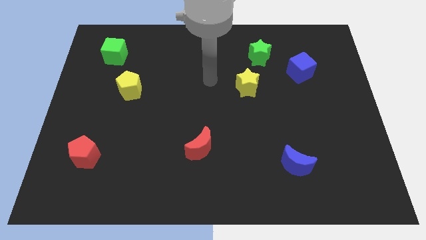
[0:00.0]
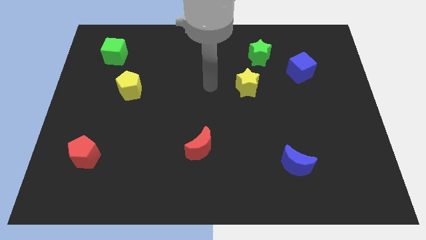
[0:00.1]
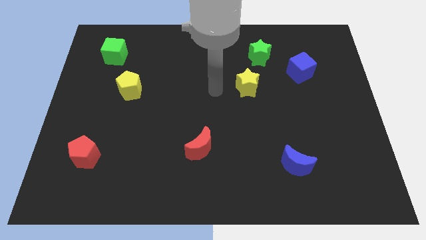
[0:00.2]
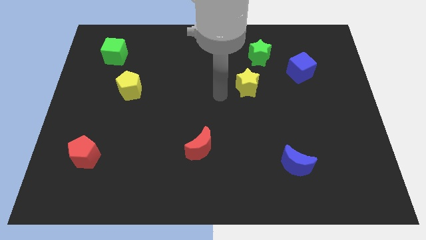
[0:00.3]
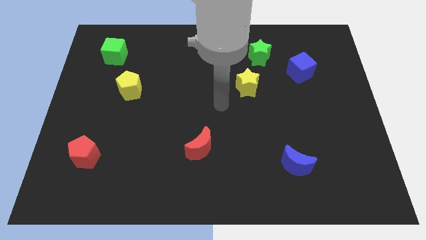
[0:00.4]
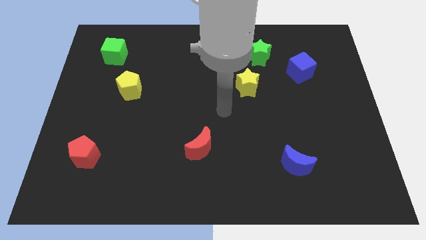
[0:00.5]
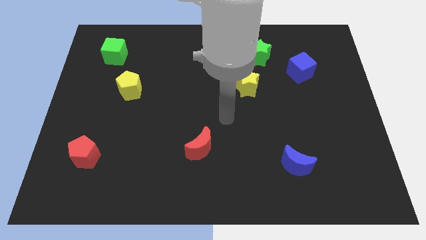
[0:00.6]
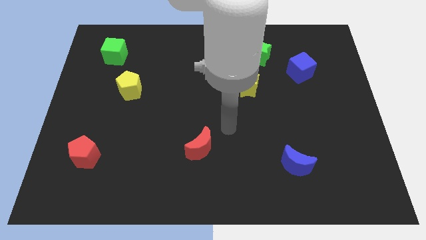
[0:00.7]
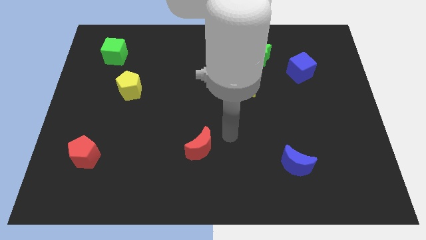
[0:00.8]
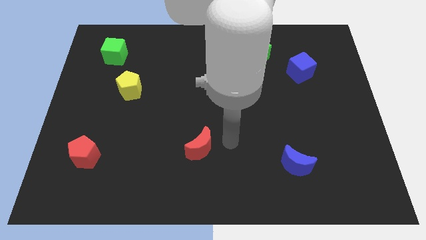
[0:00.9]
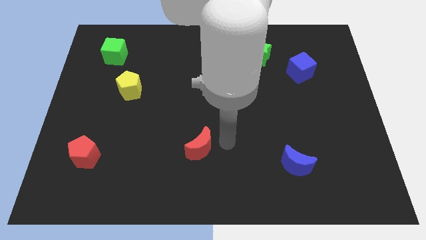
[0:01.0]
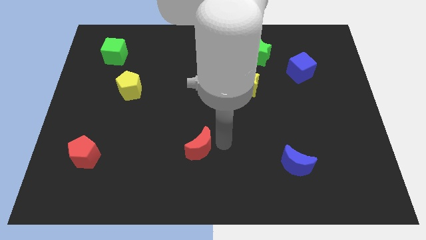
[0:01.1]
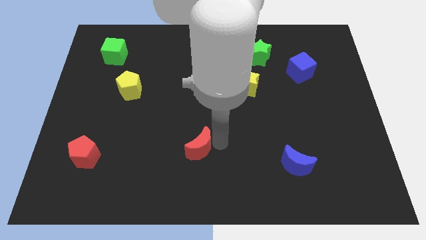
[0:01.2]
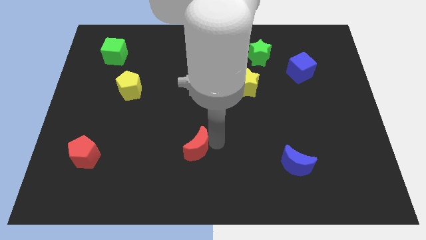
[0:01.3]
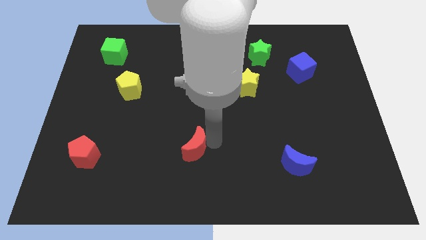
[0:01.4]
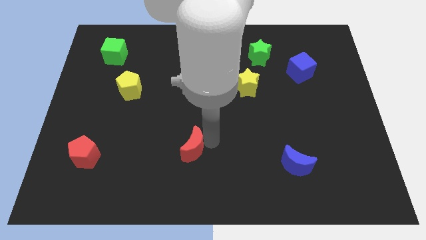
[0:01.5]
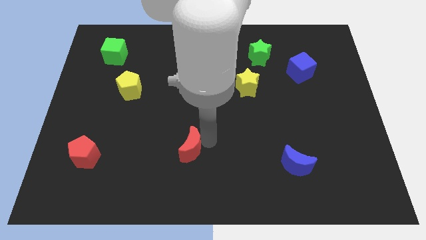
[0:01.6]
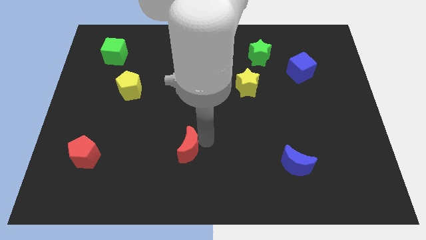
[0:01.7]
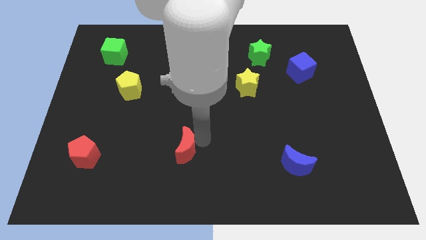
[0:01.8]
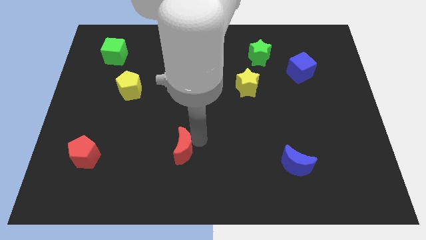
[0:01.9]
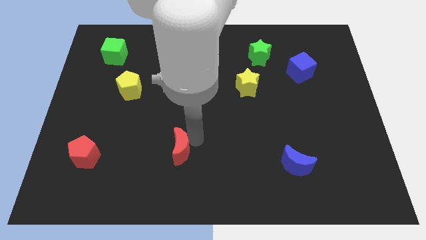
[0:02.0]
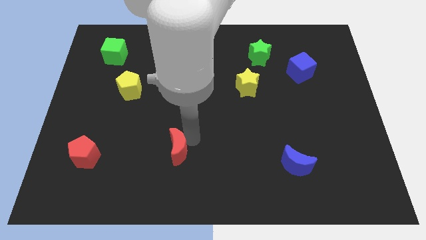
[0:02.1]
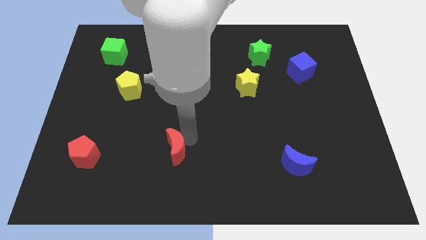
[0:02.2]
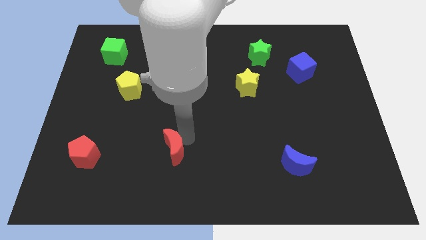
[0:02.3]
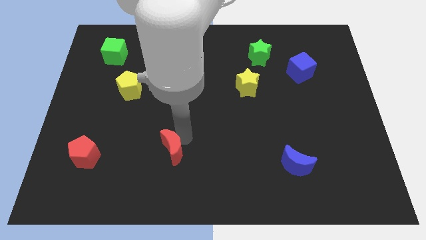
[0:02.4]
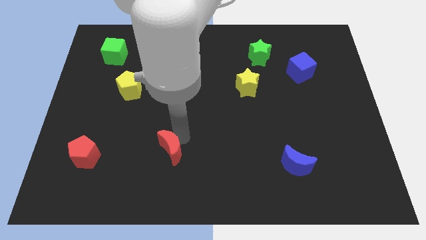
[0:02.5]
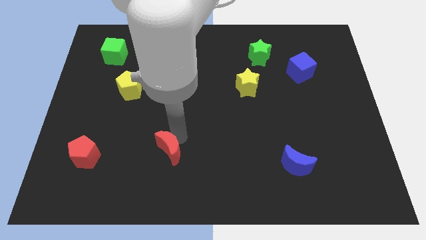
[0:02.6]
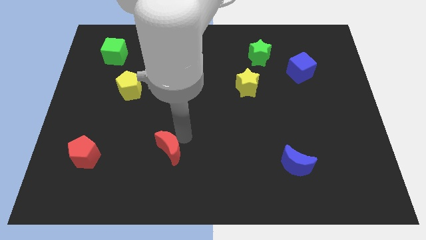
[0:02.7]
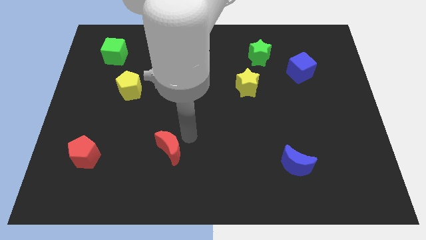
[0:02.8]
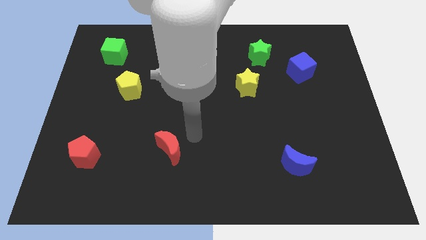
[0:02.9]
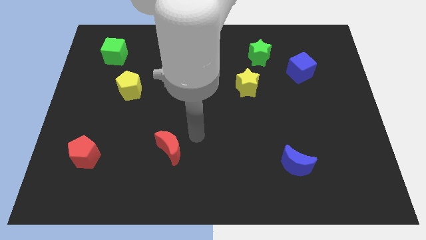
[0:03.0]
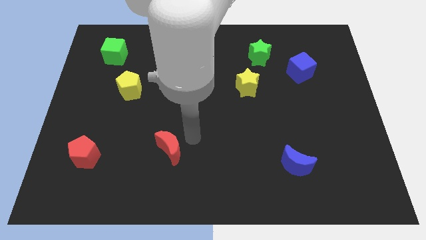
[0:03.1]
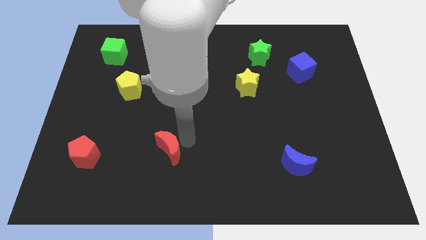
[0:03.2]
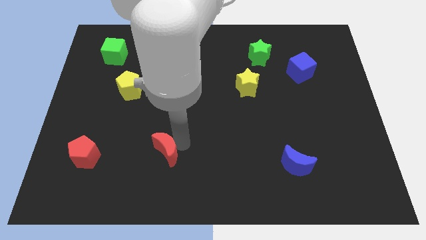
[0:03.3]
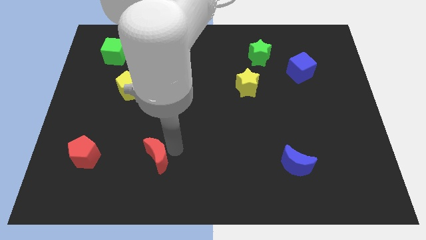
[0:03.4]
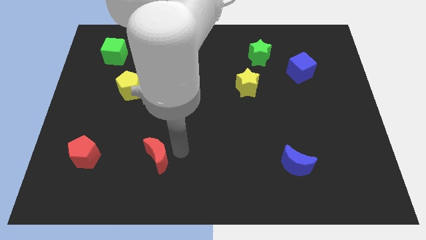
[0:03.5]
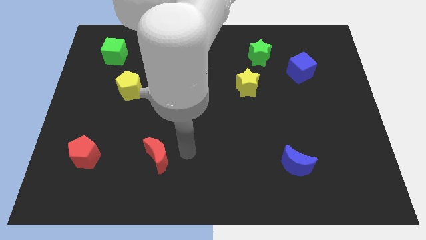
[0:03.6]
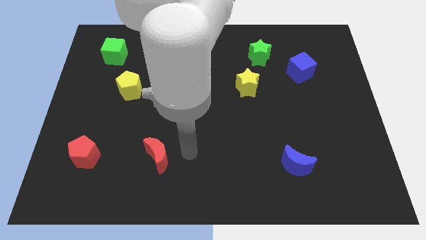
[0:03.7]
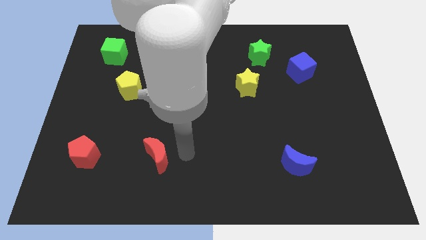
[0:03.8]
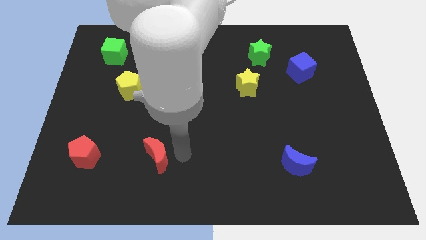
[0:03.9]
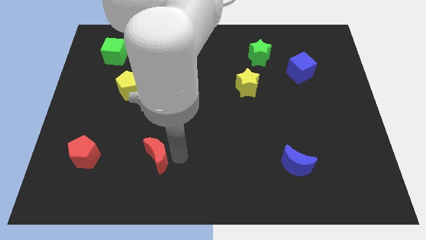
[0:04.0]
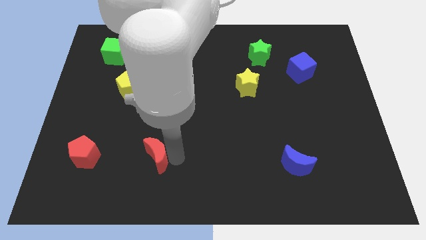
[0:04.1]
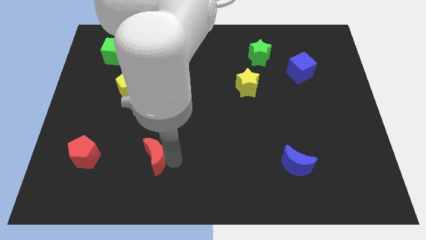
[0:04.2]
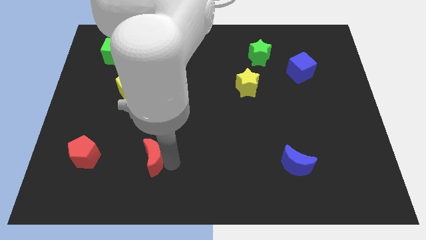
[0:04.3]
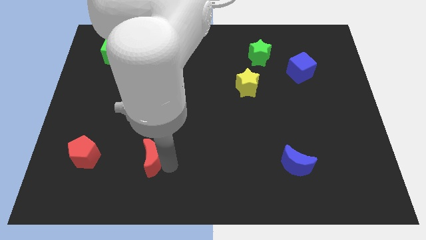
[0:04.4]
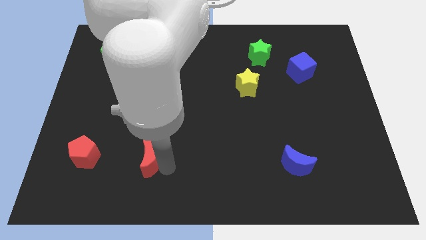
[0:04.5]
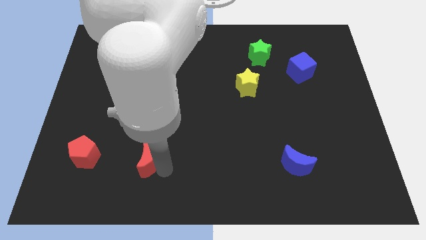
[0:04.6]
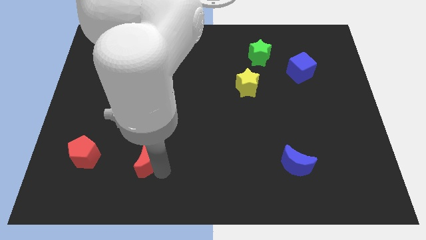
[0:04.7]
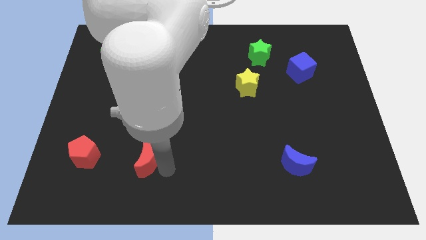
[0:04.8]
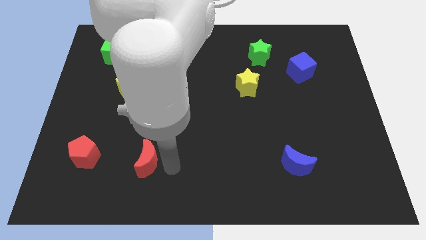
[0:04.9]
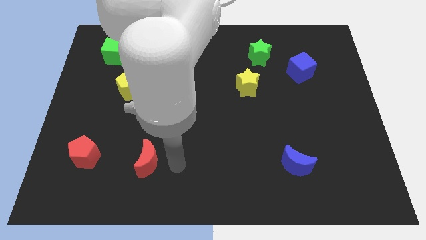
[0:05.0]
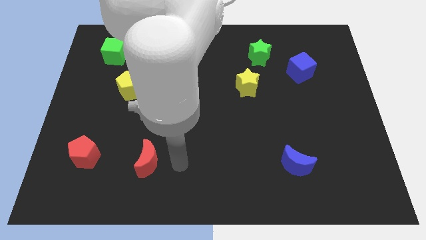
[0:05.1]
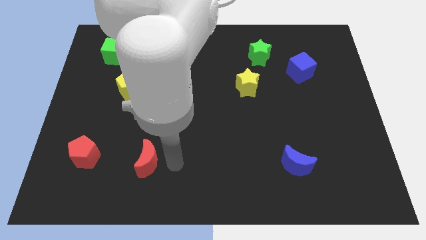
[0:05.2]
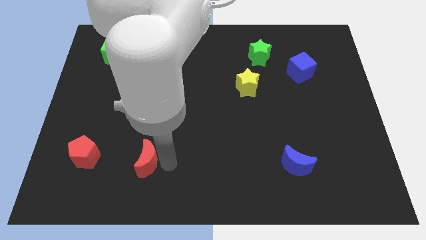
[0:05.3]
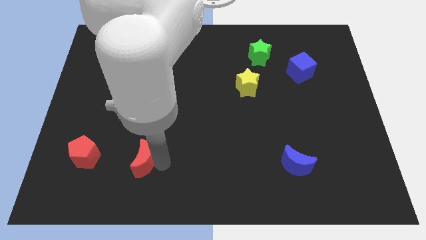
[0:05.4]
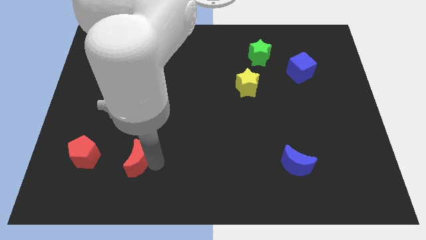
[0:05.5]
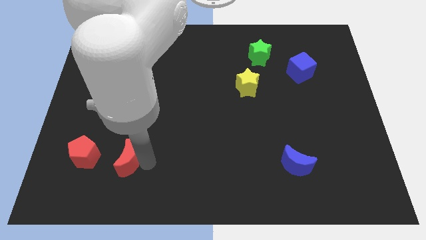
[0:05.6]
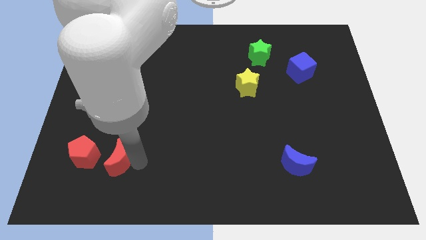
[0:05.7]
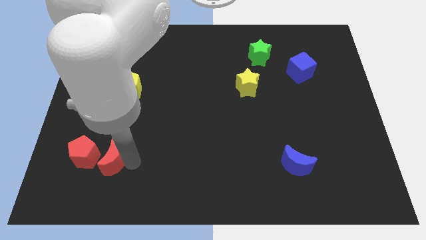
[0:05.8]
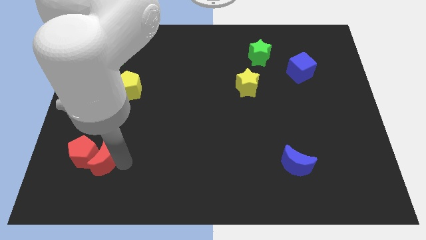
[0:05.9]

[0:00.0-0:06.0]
move the red moon towards the red pentagon
